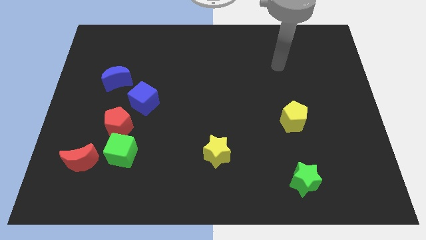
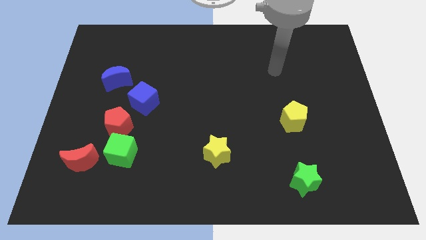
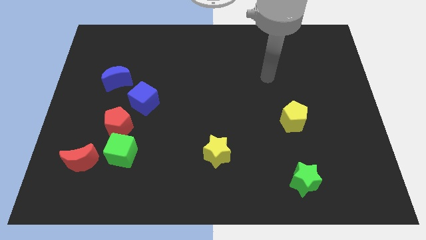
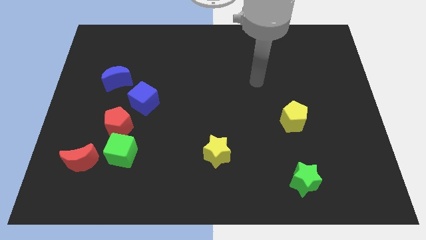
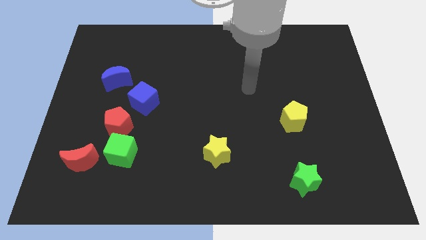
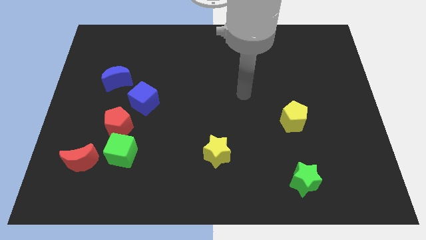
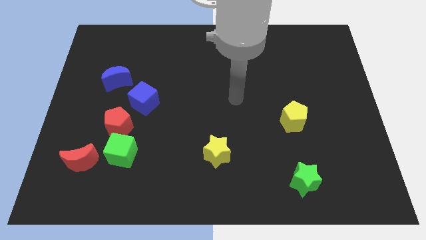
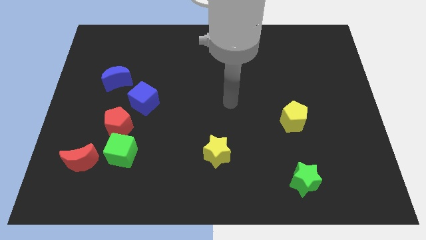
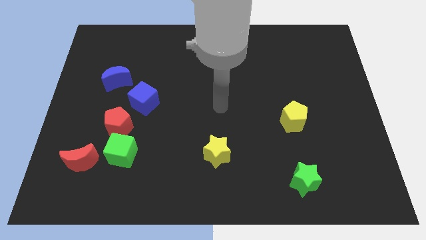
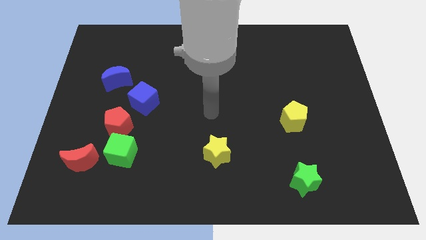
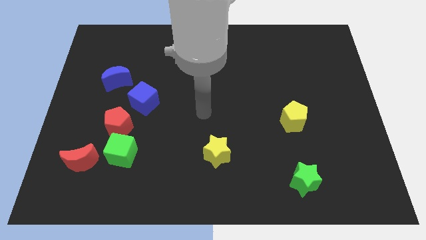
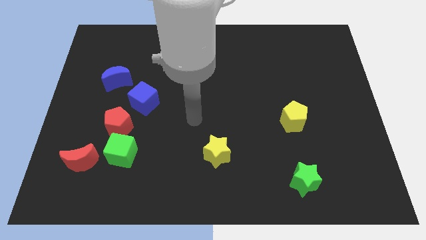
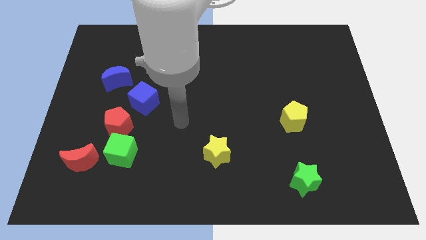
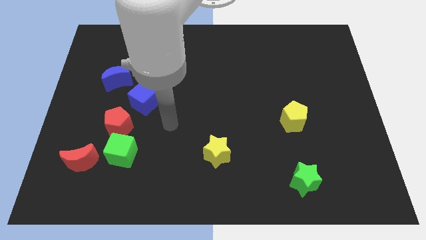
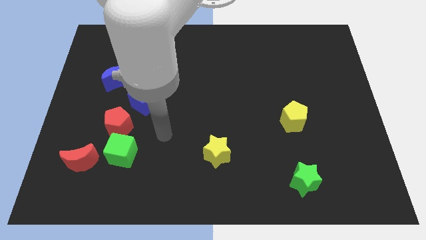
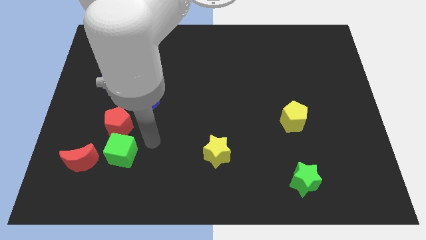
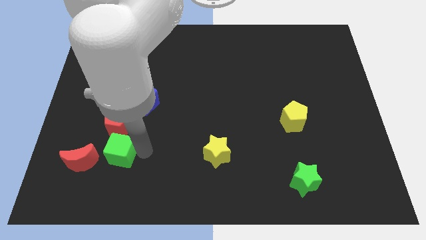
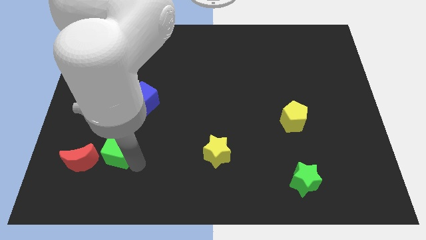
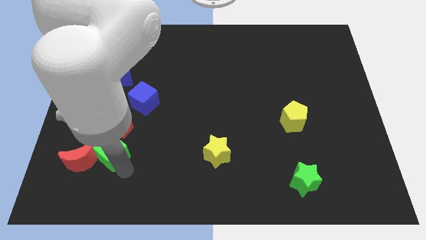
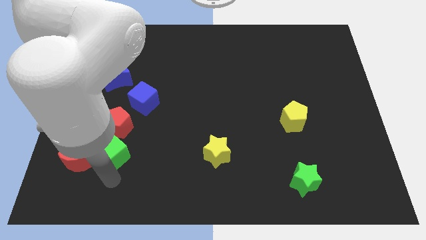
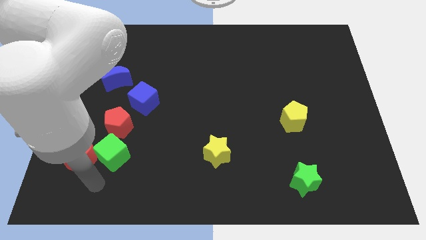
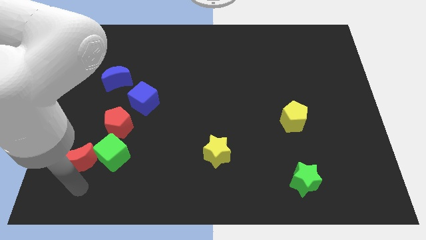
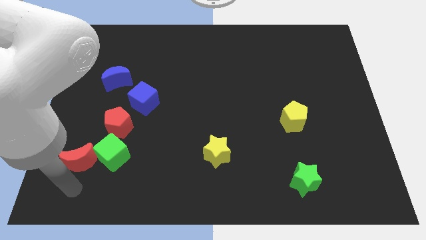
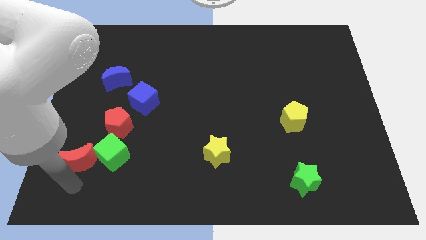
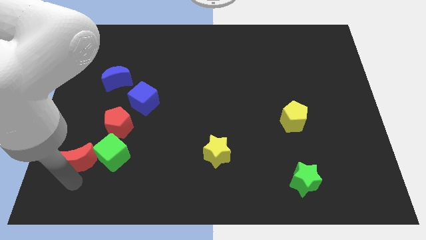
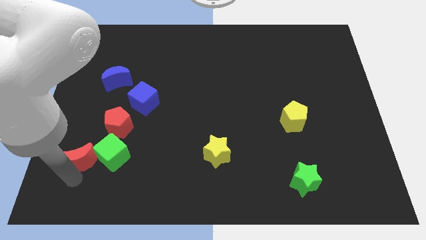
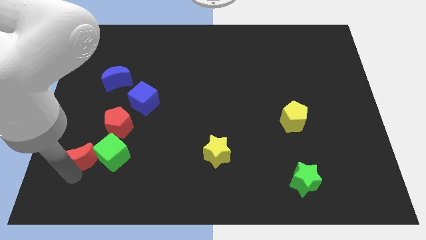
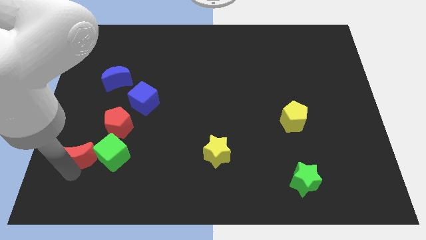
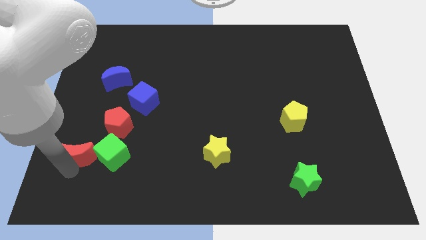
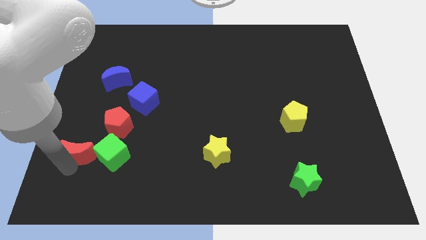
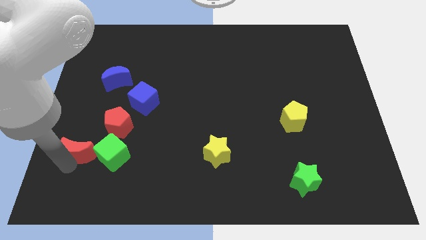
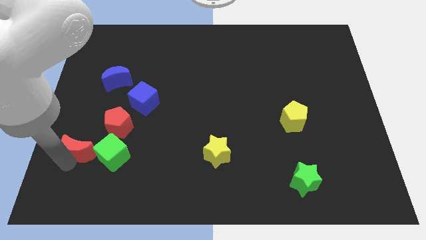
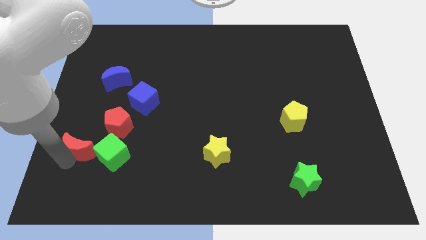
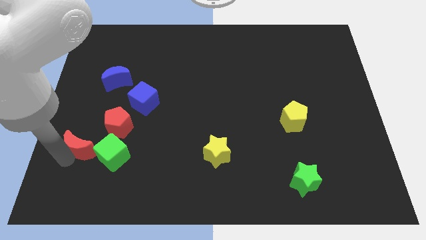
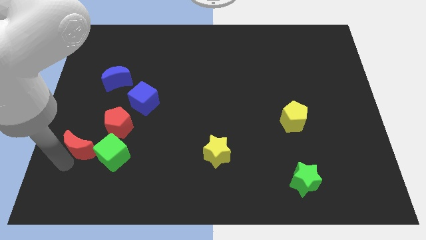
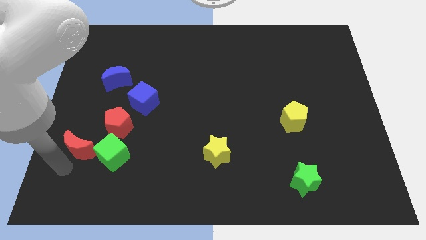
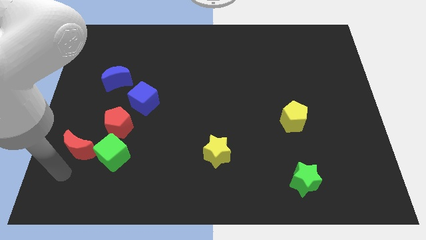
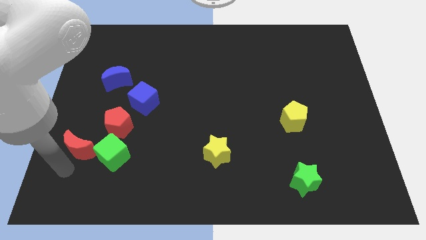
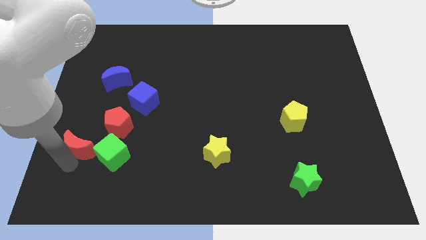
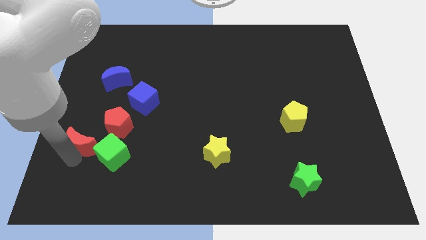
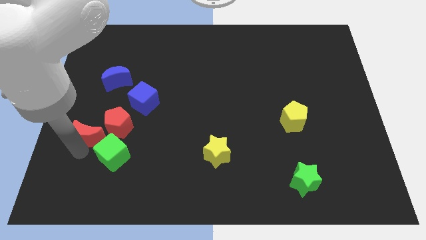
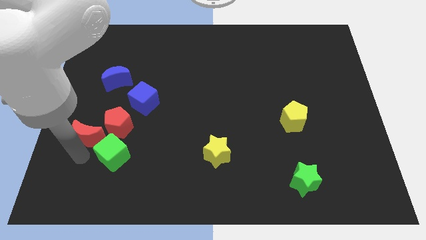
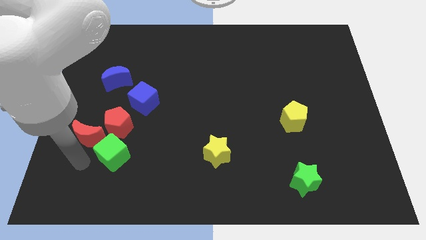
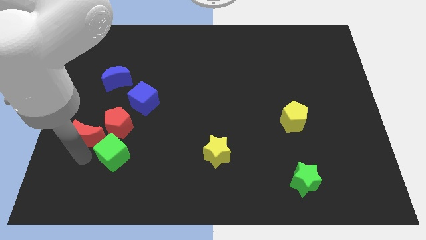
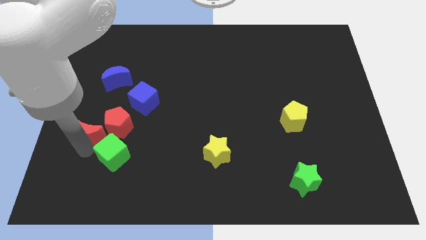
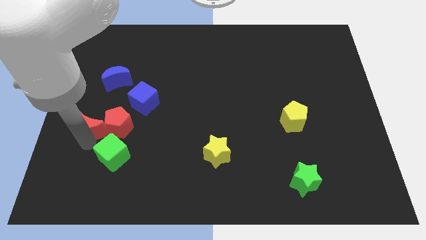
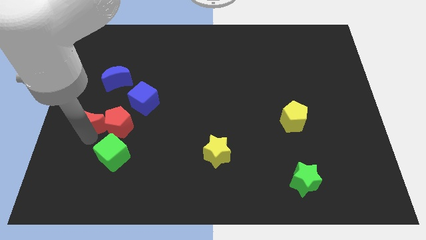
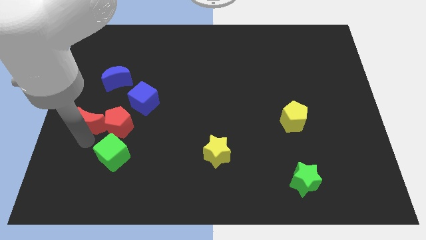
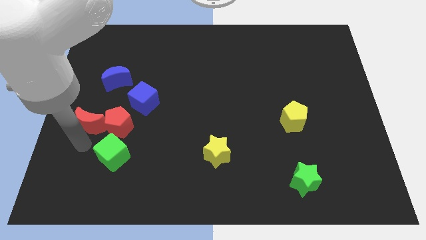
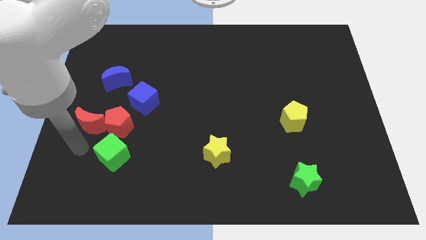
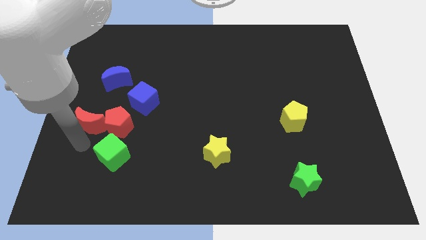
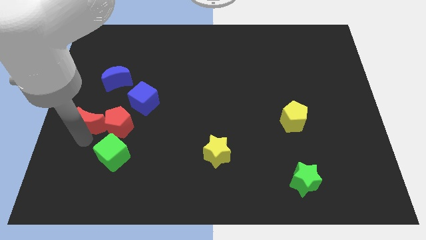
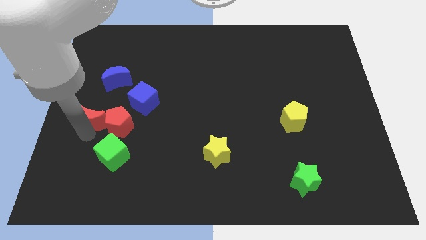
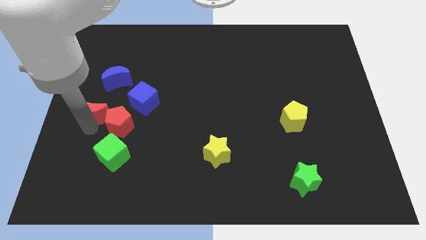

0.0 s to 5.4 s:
move the red moon to the left of the blue cube

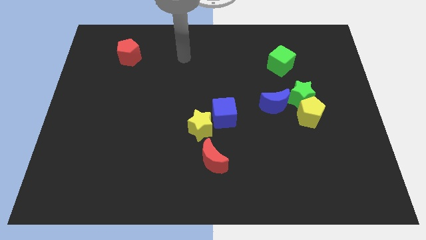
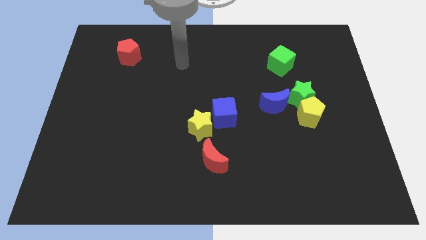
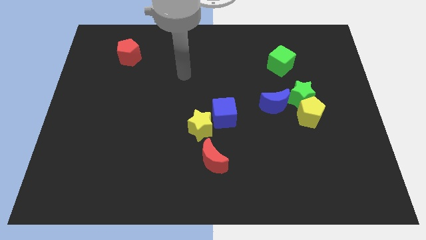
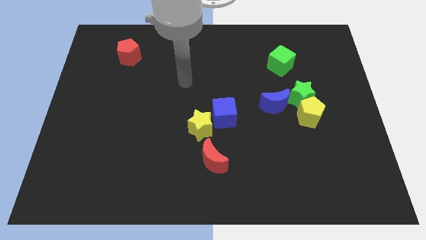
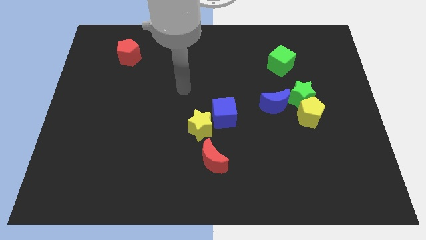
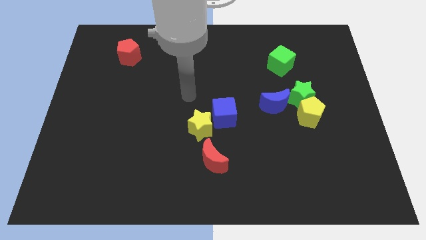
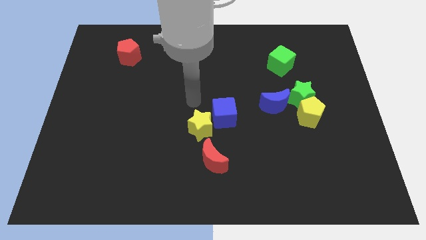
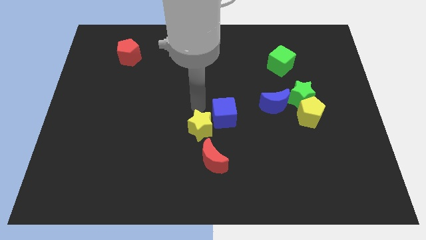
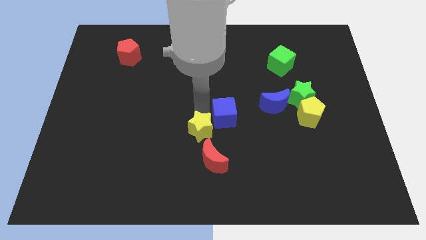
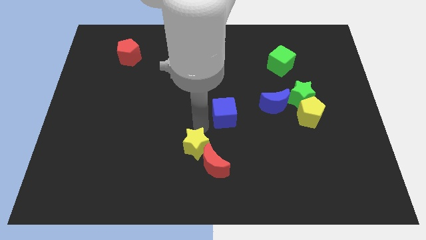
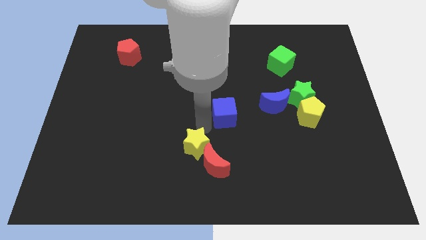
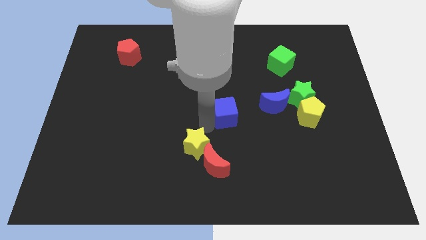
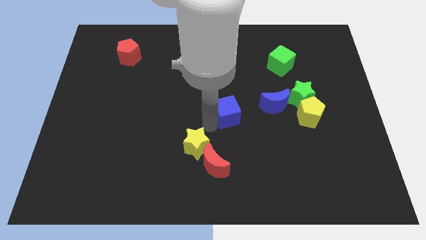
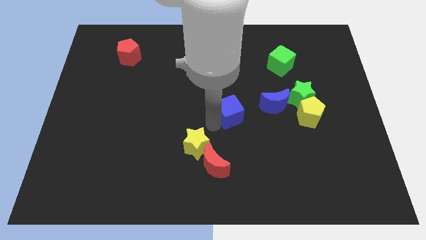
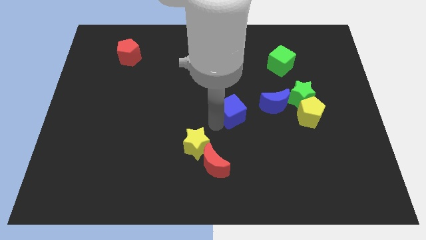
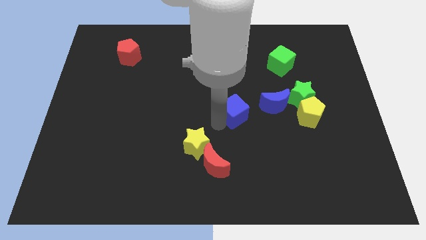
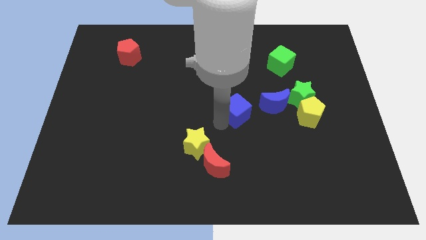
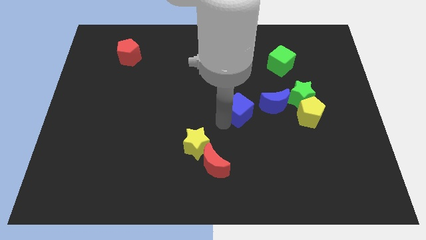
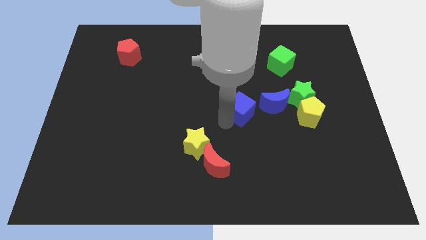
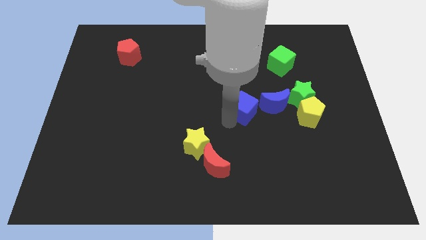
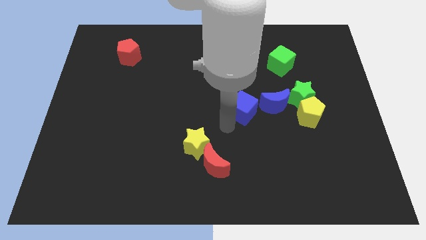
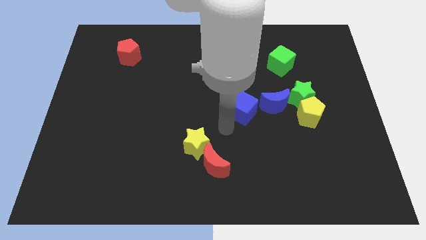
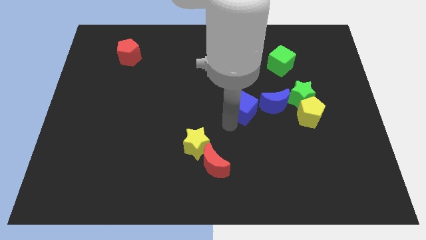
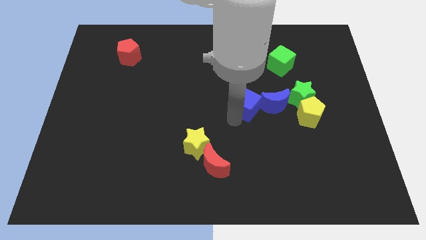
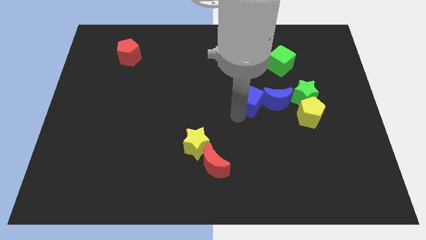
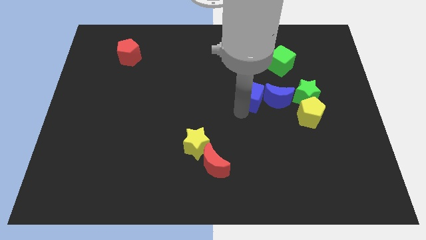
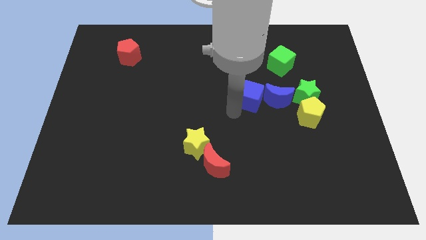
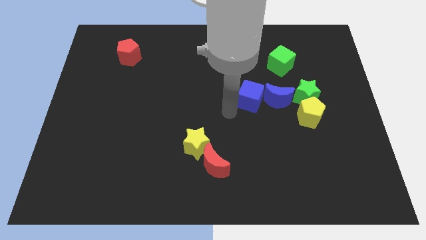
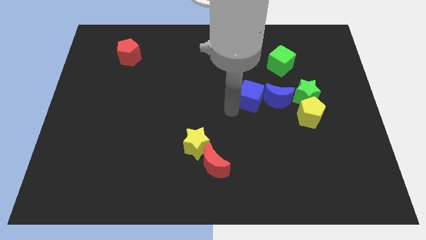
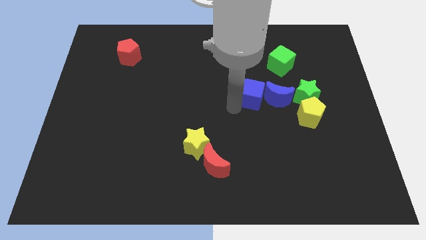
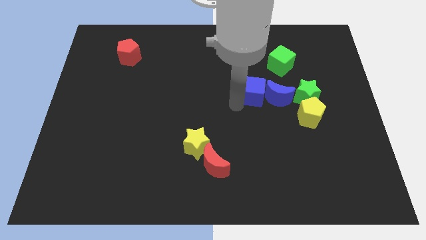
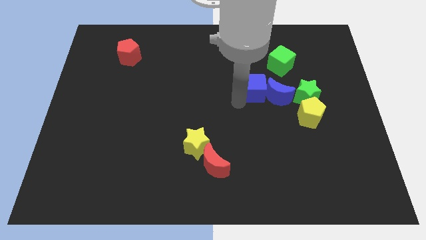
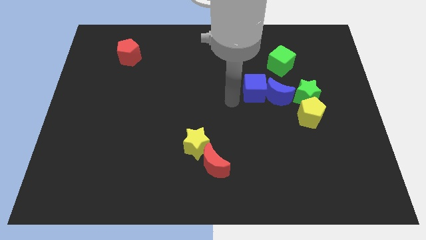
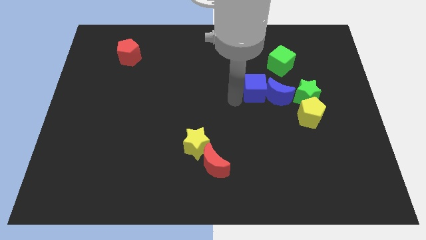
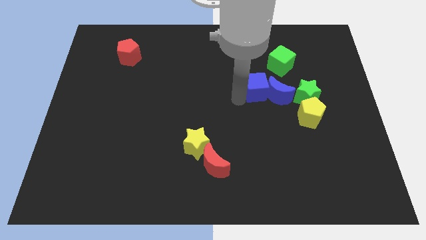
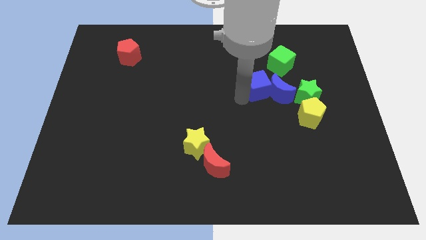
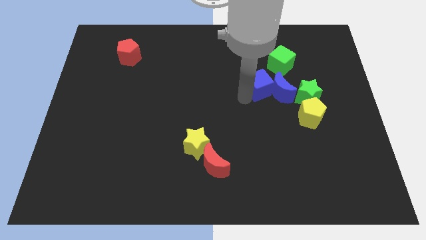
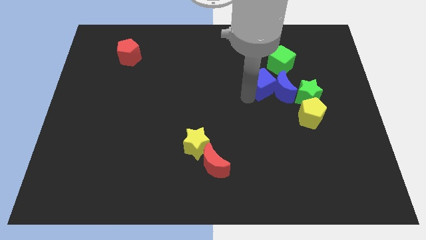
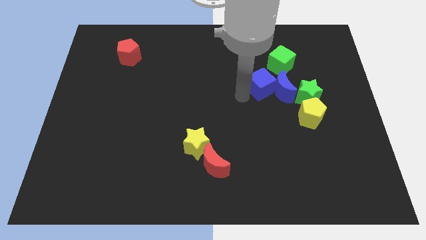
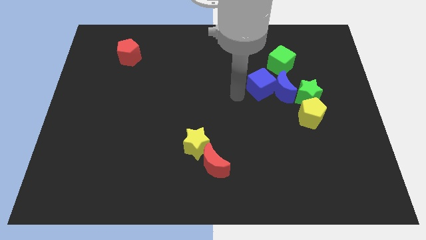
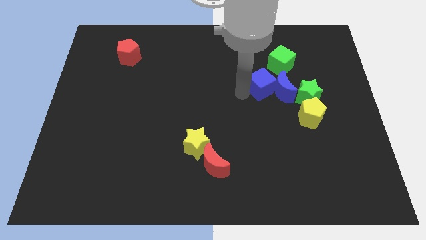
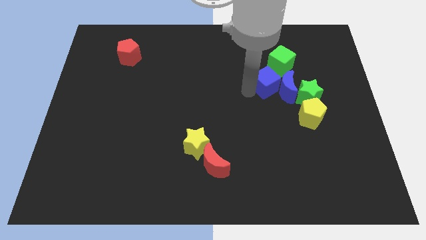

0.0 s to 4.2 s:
move the blue cube to the top left of the green star
